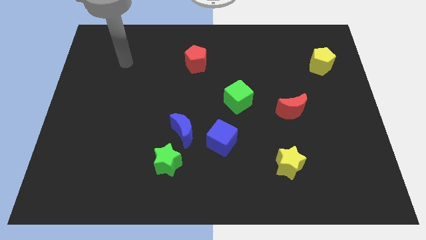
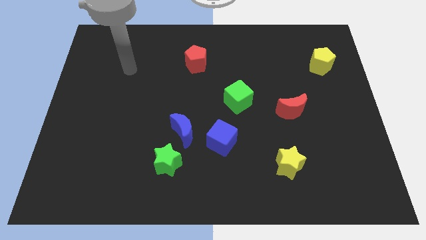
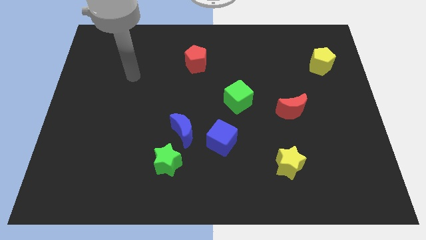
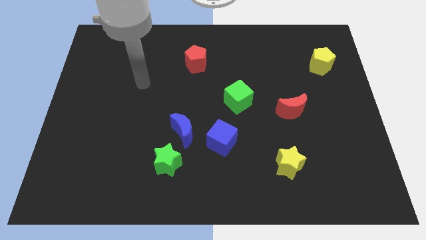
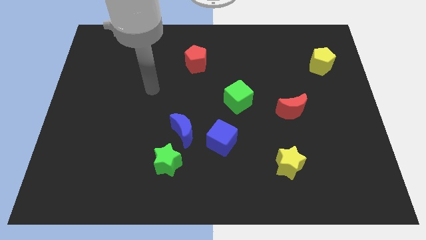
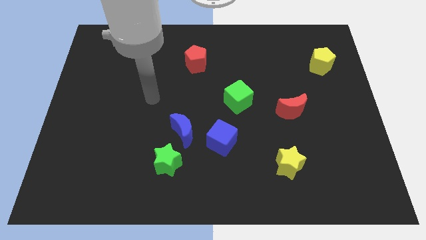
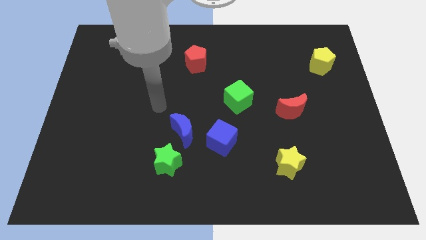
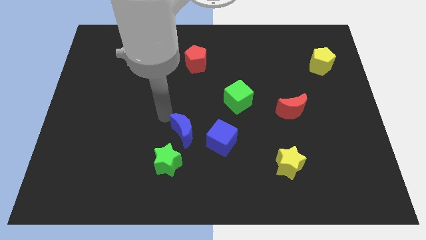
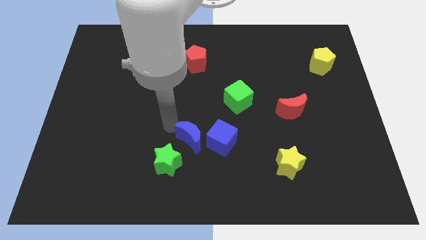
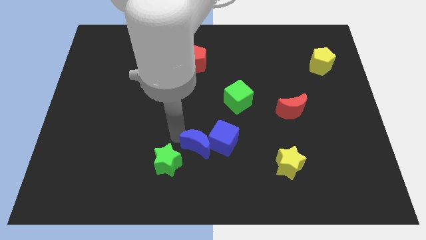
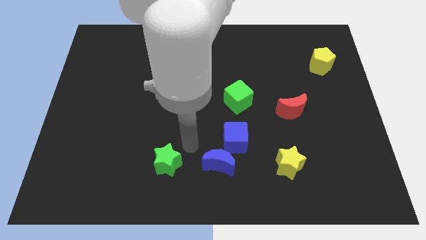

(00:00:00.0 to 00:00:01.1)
separate the green star from the blue moon

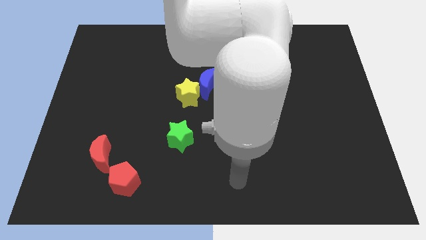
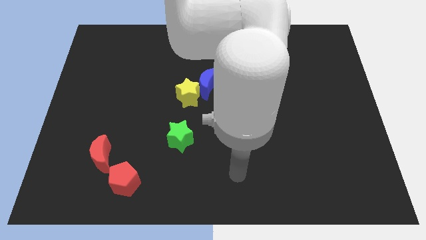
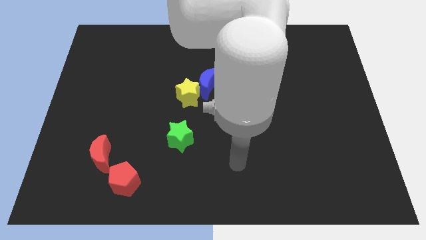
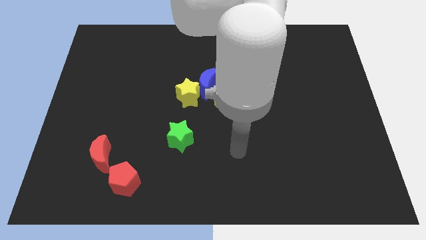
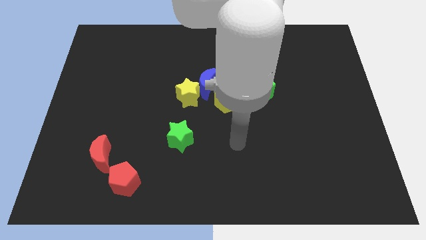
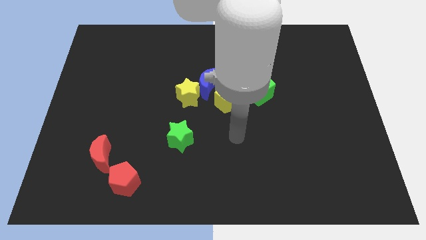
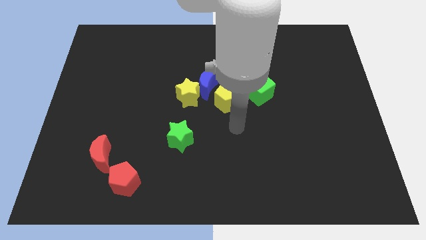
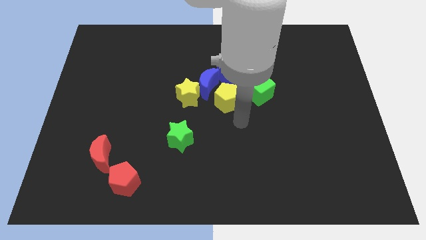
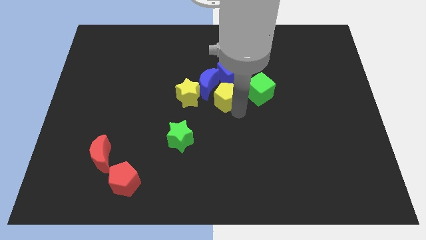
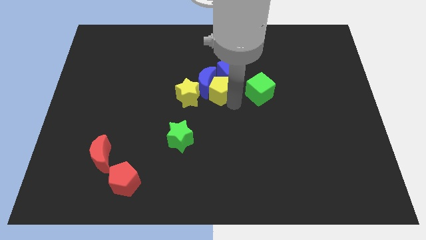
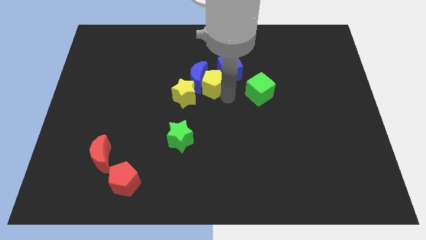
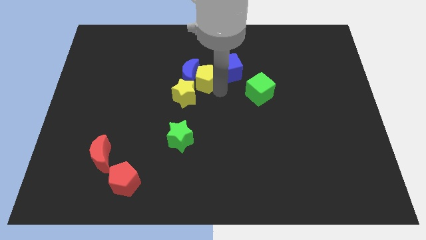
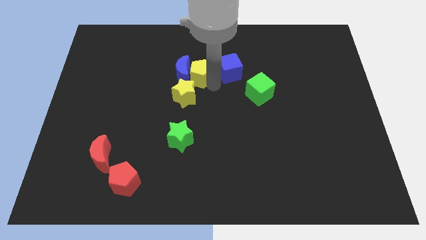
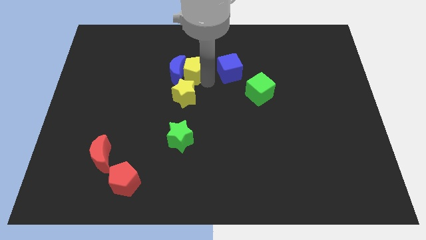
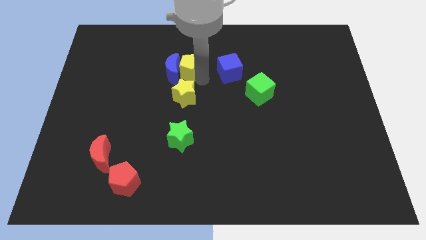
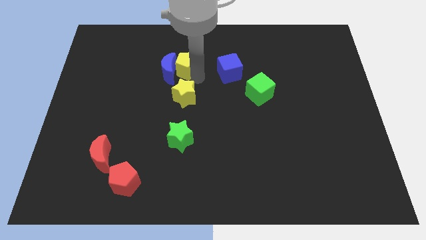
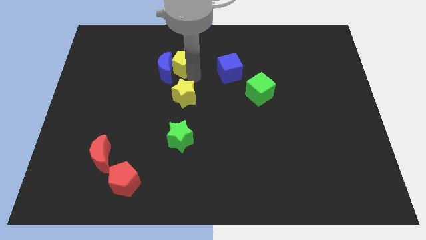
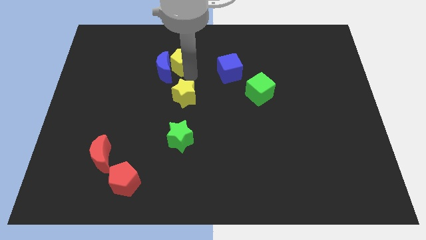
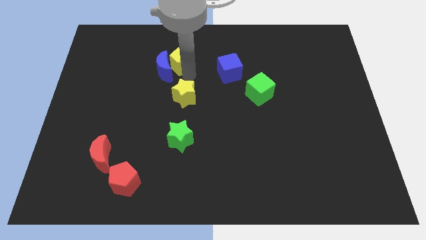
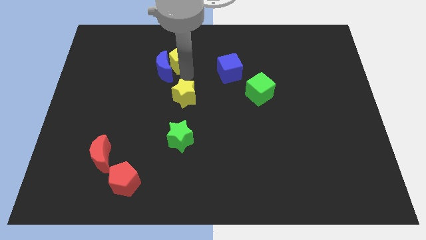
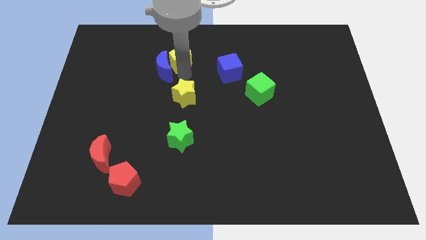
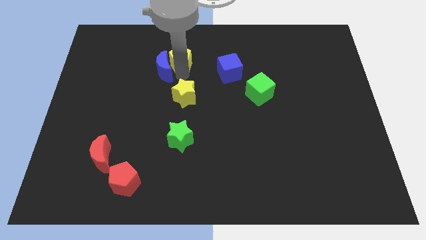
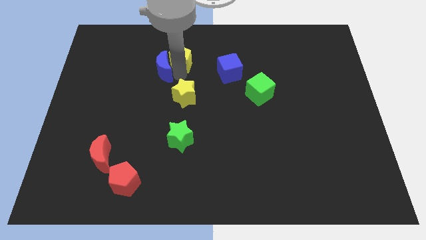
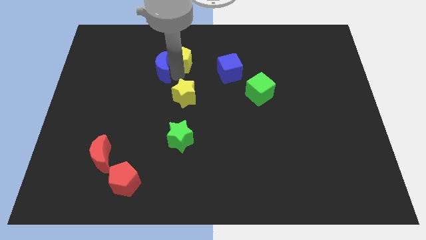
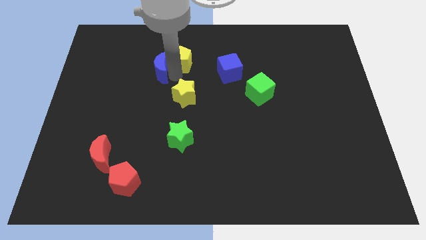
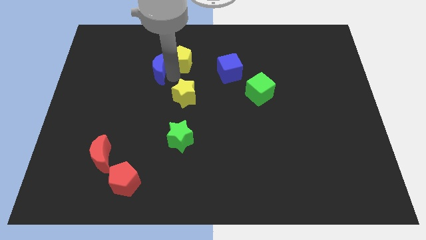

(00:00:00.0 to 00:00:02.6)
move the blue moon away from the group of blocks

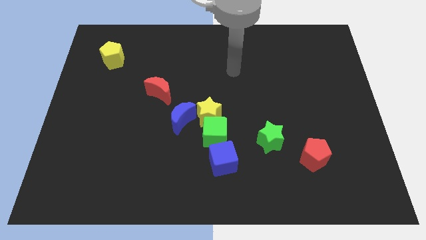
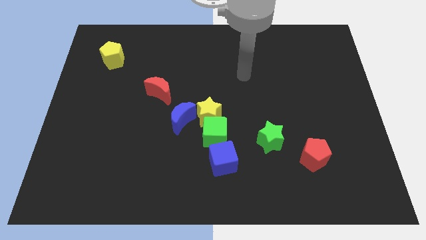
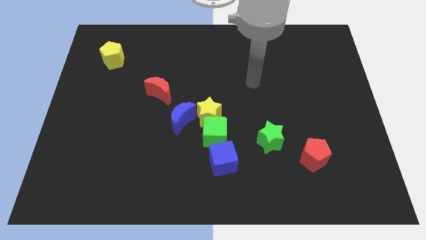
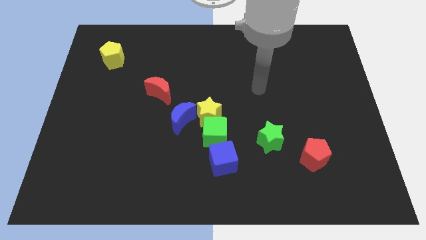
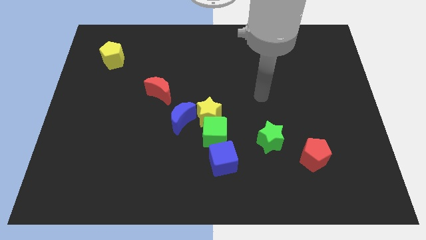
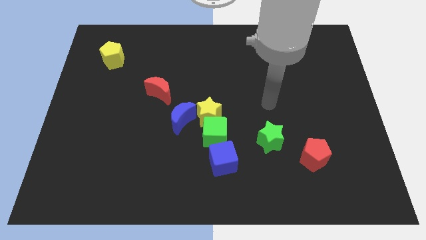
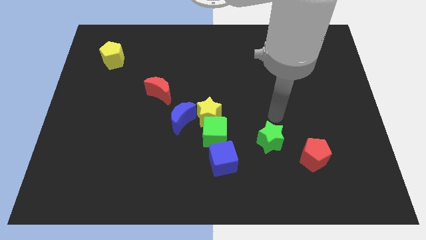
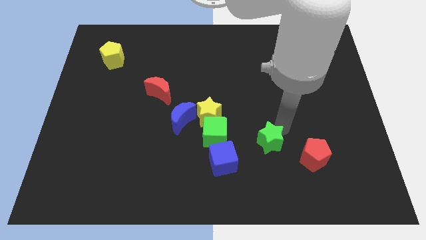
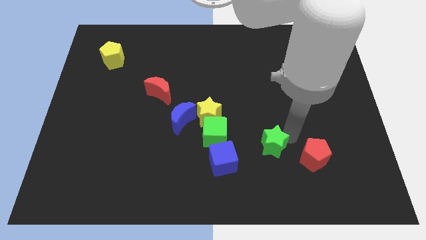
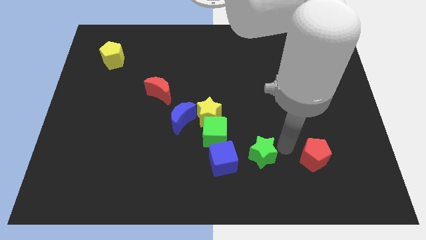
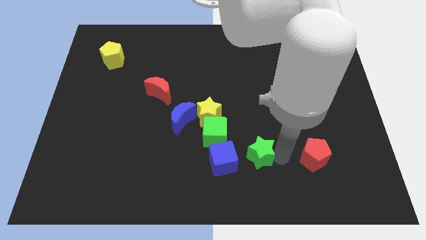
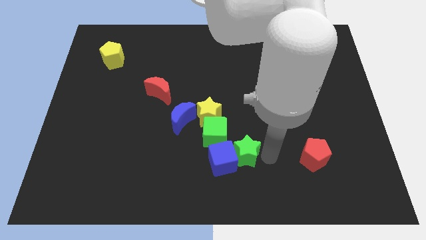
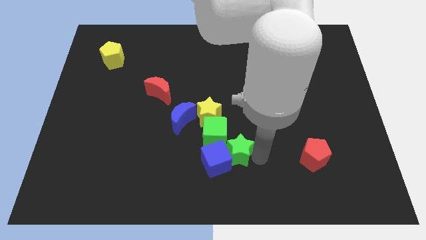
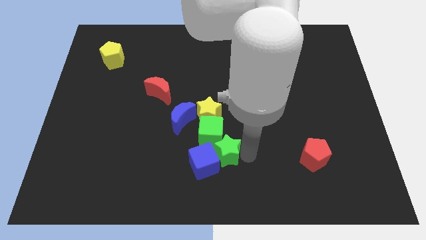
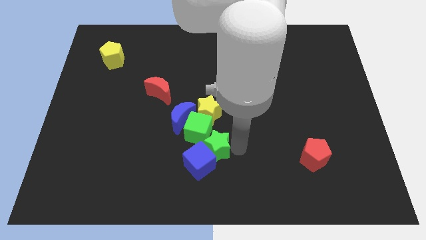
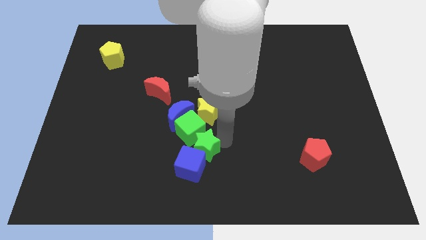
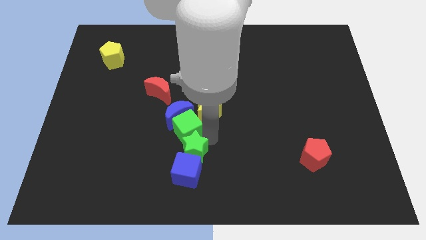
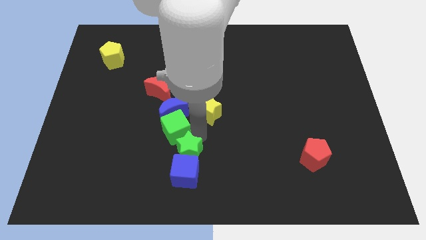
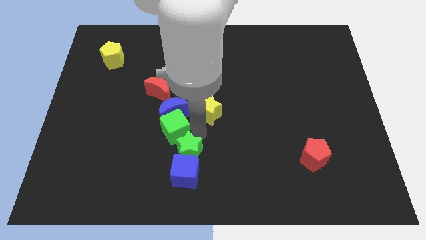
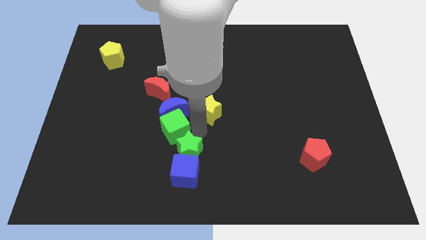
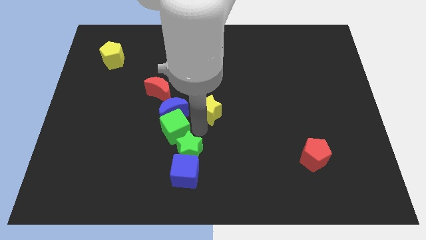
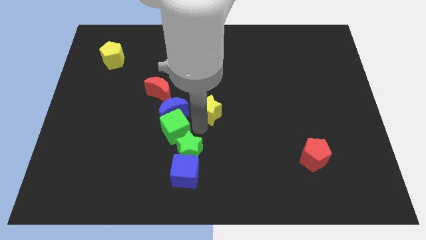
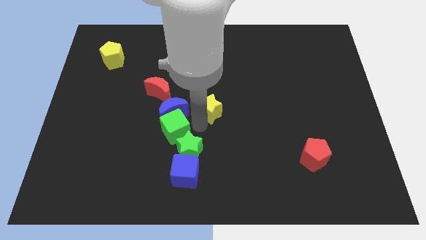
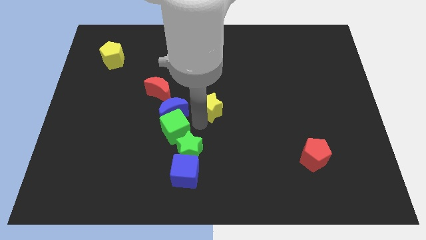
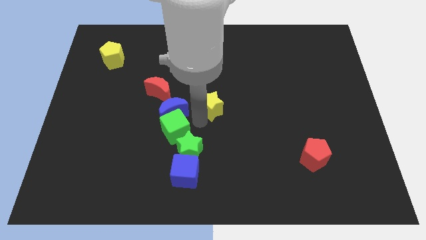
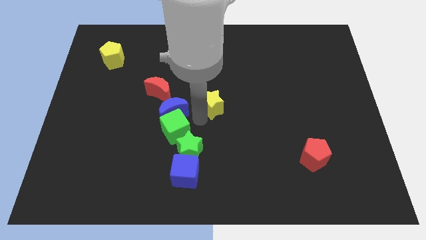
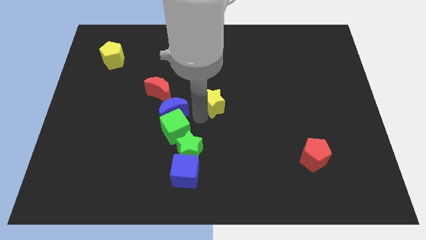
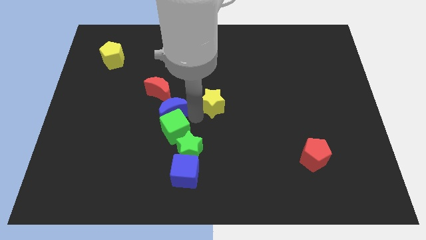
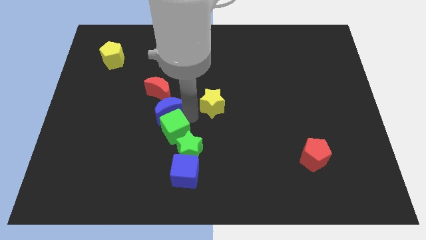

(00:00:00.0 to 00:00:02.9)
pull the yellow star apart from the green cube and blue moon

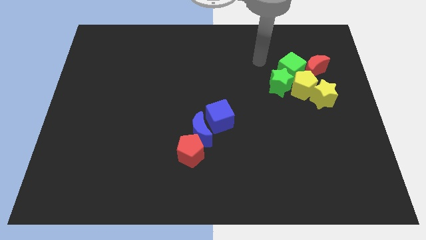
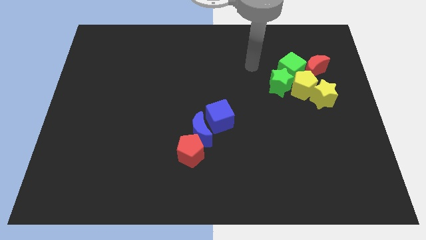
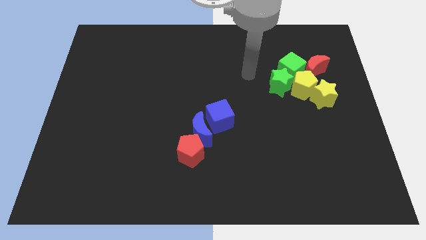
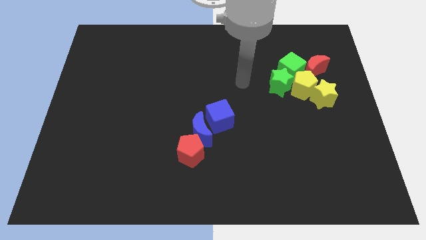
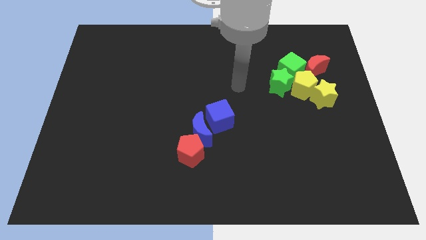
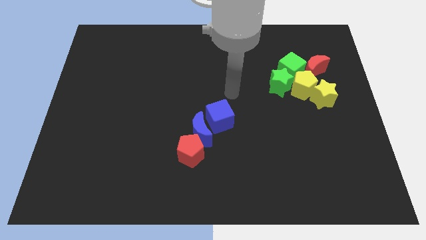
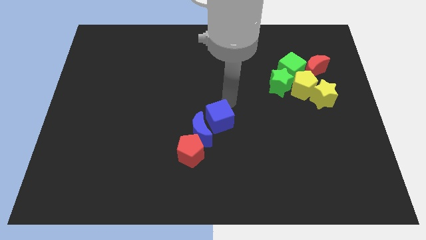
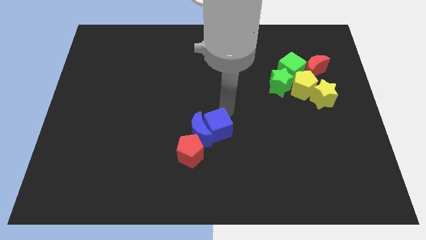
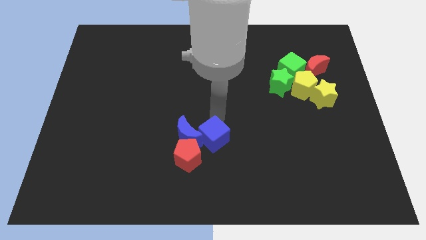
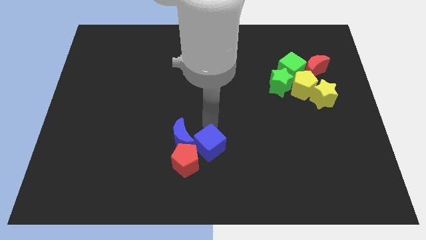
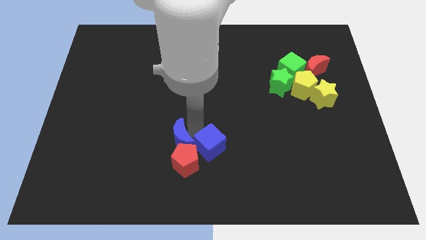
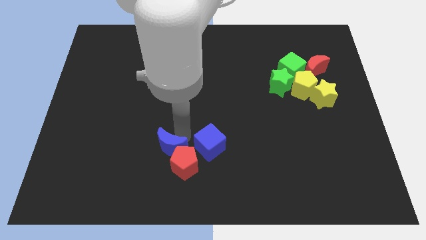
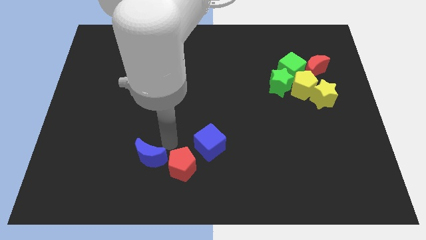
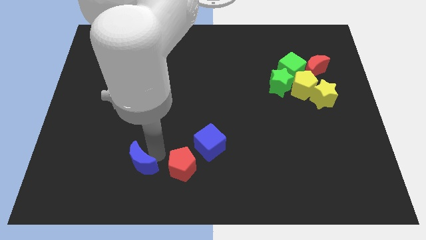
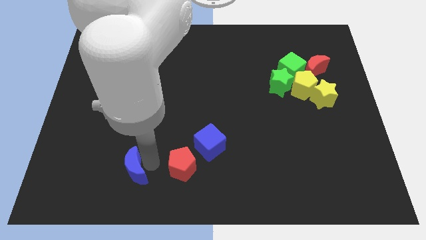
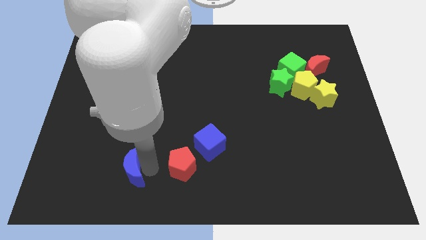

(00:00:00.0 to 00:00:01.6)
move the red pentagon away from the blue moon

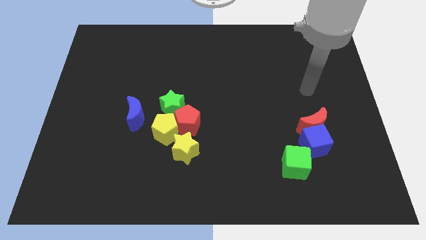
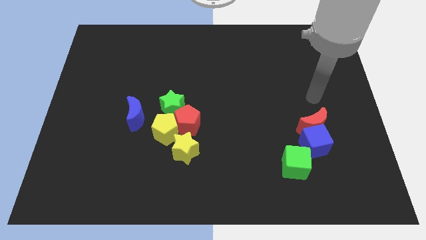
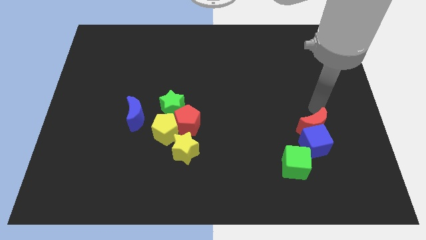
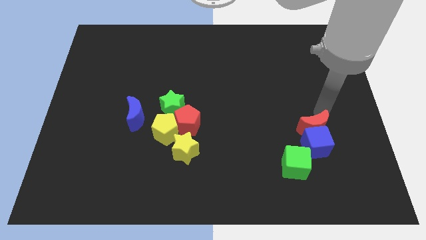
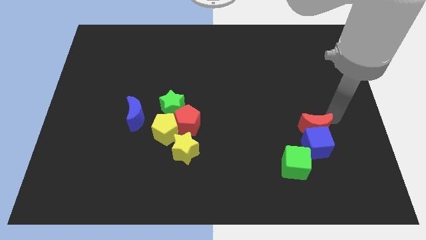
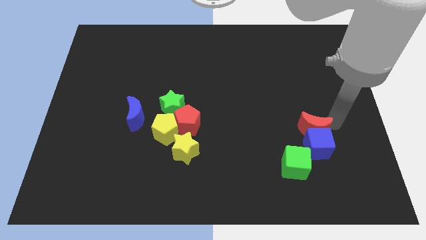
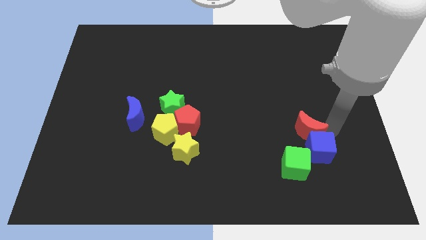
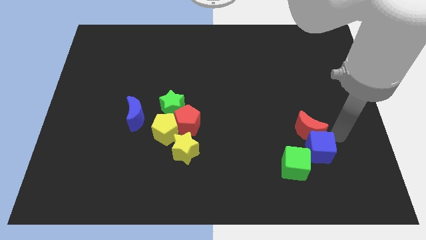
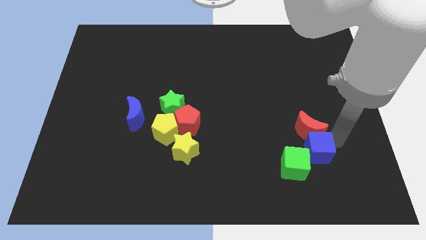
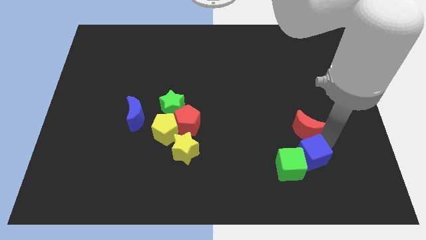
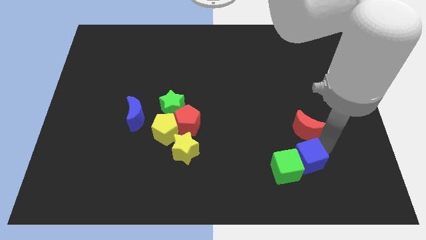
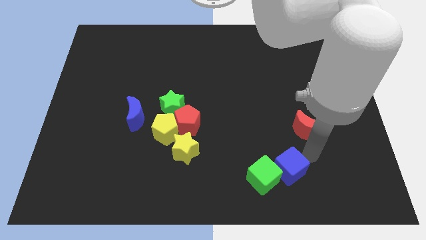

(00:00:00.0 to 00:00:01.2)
move the red moon away from the blue cube
